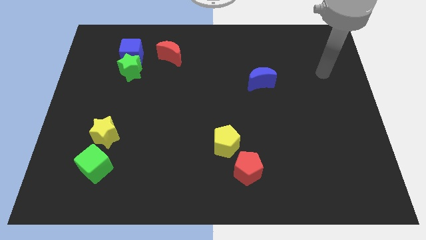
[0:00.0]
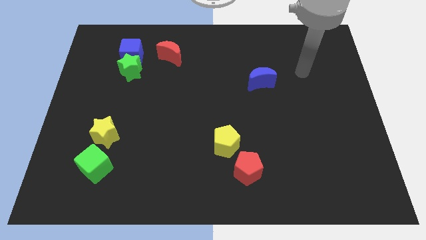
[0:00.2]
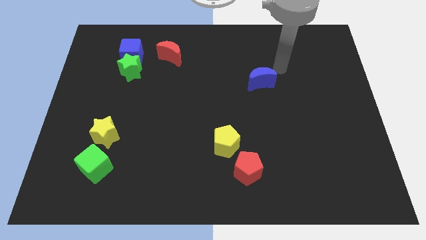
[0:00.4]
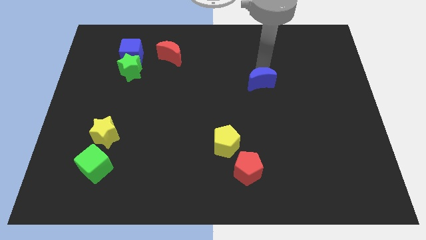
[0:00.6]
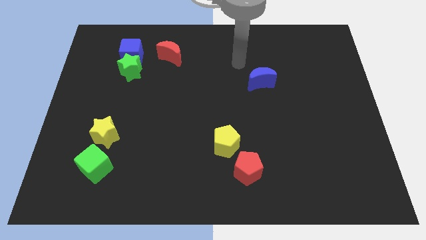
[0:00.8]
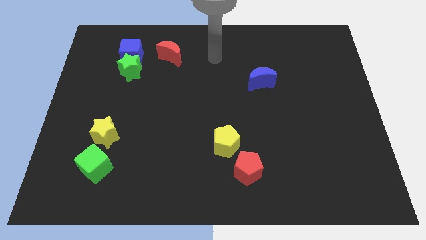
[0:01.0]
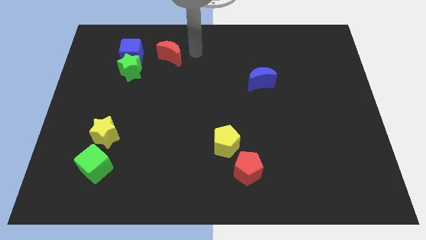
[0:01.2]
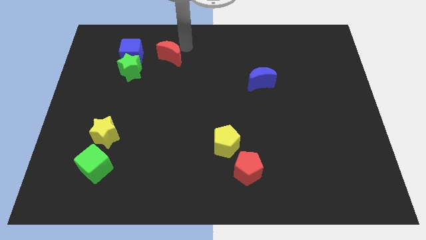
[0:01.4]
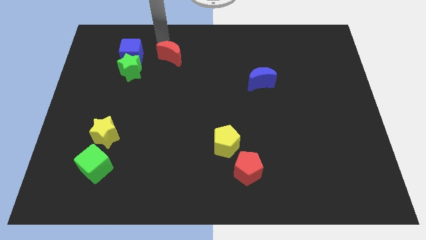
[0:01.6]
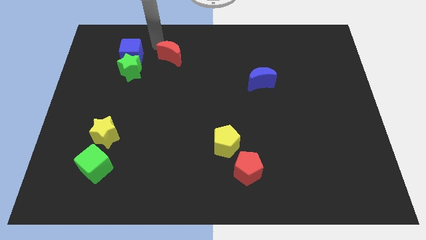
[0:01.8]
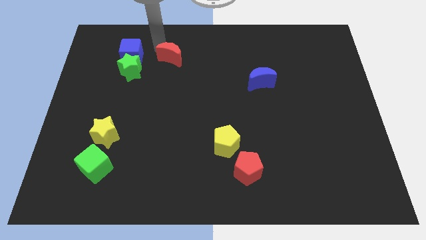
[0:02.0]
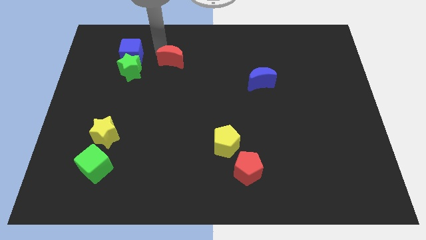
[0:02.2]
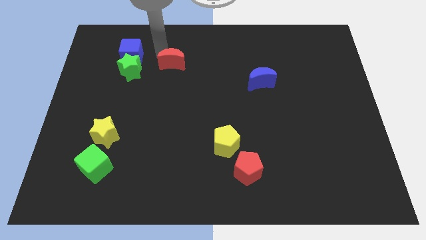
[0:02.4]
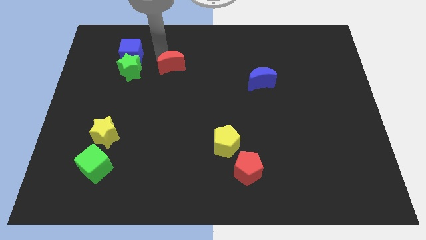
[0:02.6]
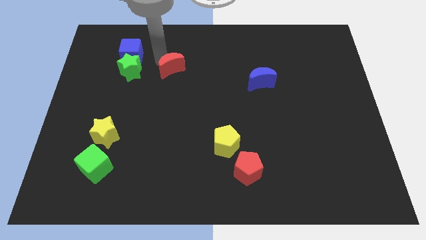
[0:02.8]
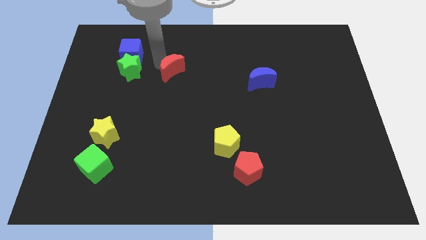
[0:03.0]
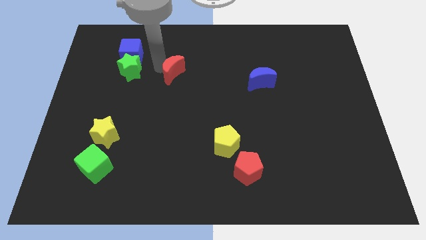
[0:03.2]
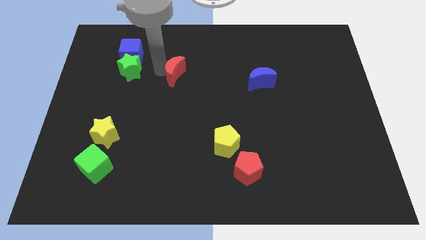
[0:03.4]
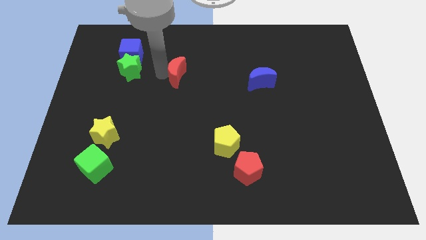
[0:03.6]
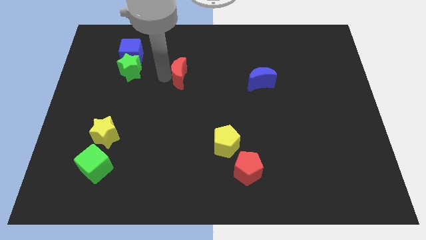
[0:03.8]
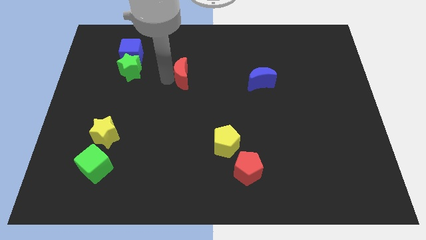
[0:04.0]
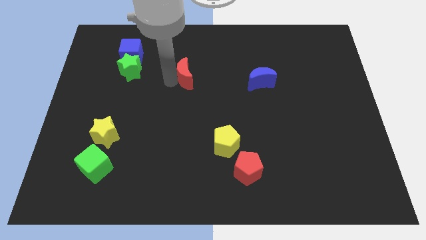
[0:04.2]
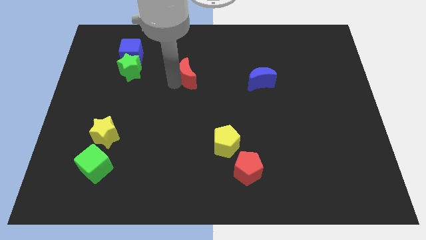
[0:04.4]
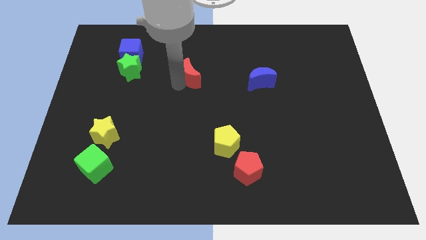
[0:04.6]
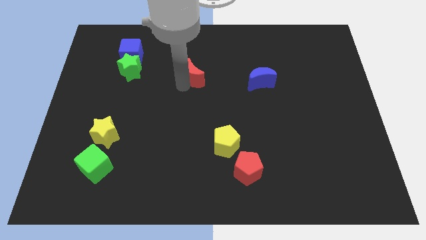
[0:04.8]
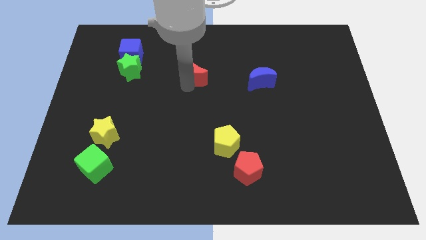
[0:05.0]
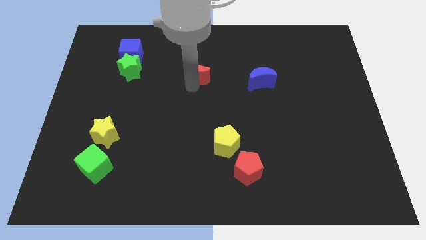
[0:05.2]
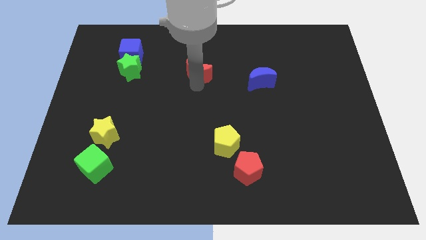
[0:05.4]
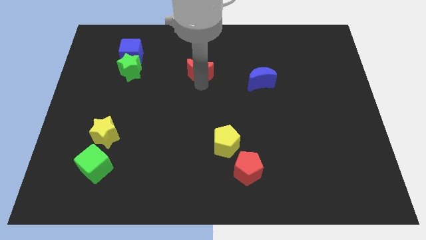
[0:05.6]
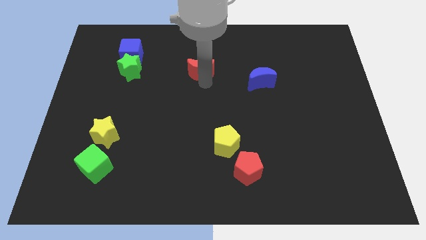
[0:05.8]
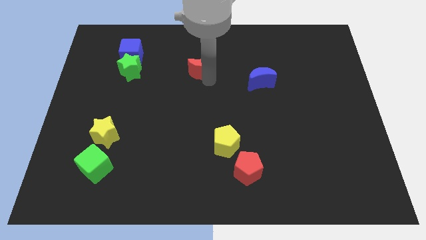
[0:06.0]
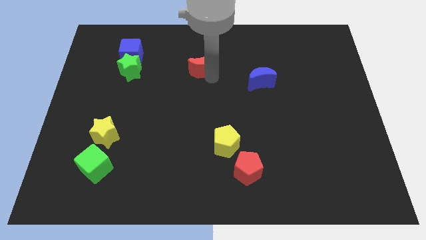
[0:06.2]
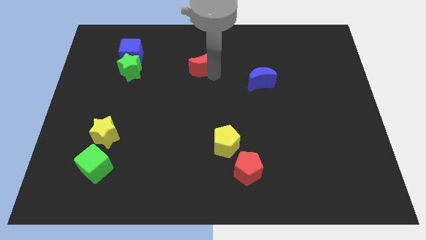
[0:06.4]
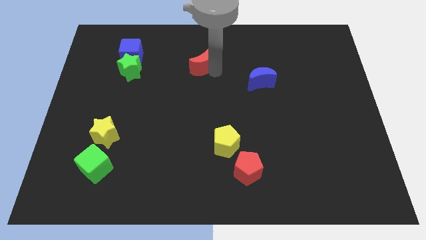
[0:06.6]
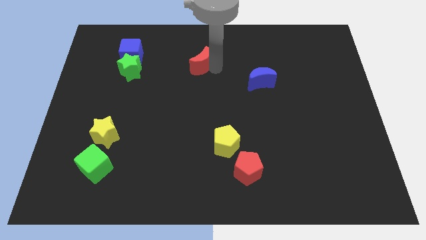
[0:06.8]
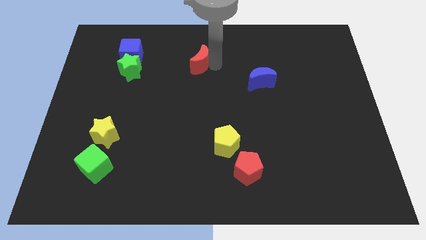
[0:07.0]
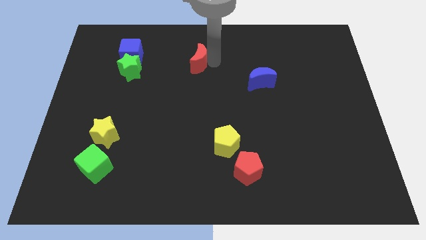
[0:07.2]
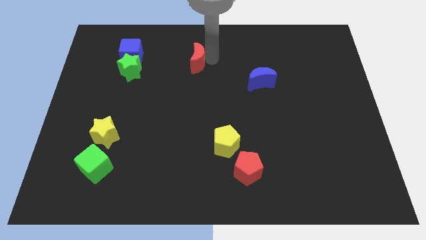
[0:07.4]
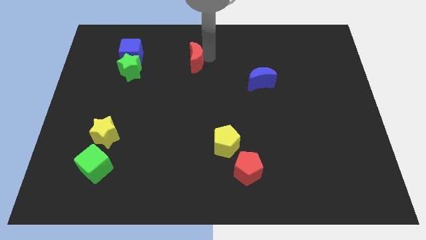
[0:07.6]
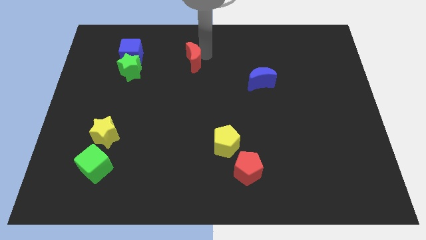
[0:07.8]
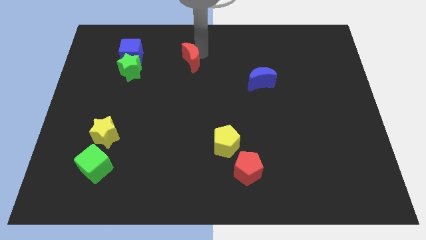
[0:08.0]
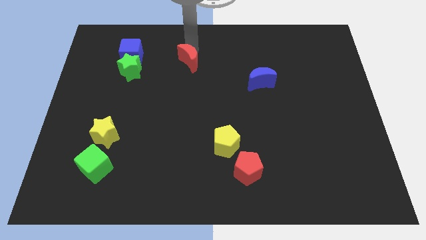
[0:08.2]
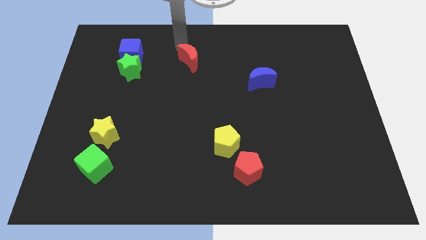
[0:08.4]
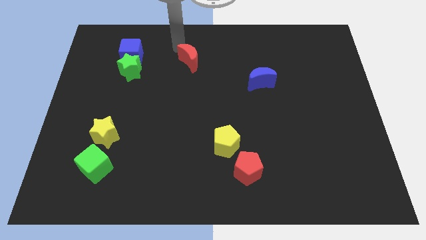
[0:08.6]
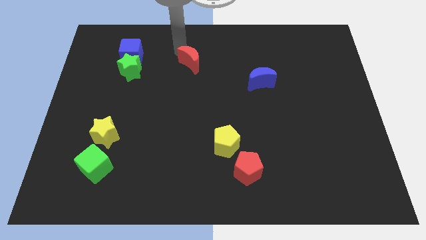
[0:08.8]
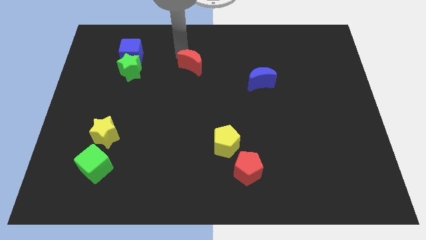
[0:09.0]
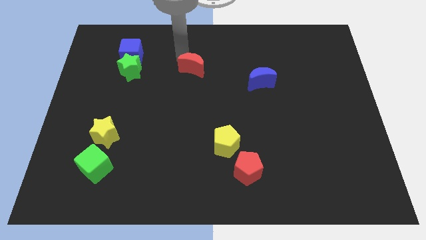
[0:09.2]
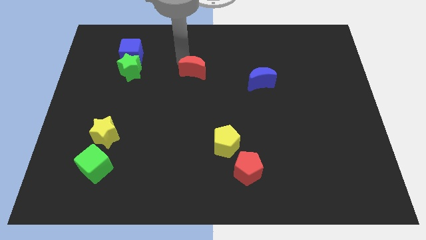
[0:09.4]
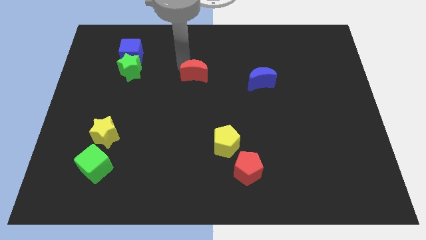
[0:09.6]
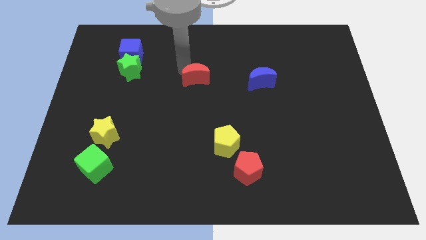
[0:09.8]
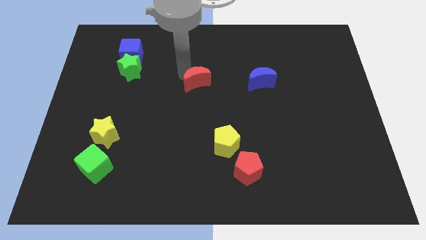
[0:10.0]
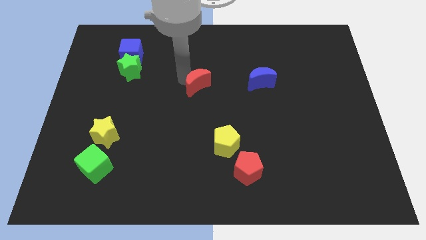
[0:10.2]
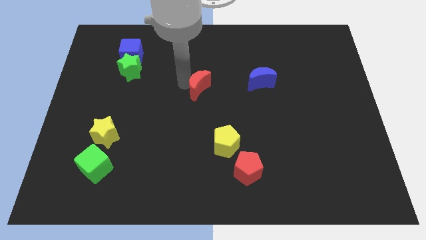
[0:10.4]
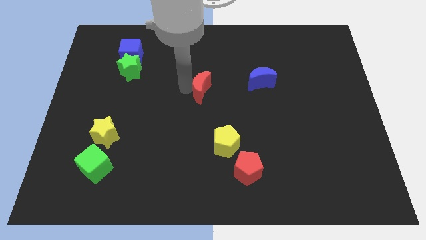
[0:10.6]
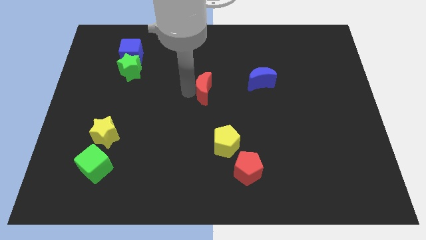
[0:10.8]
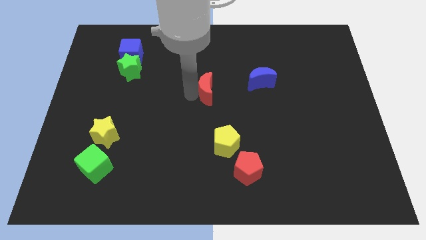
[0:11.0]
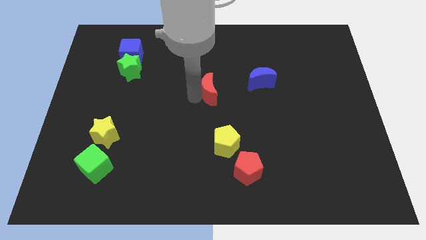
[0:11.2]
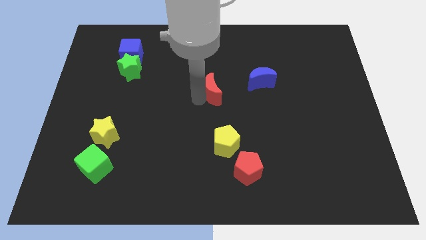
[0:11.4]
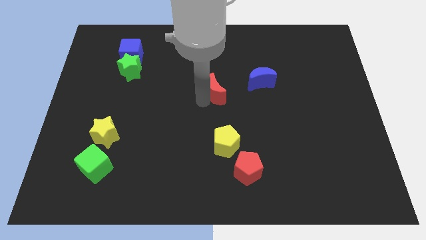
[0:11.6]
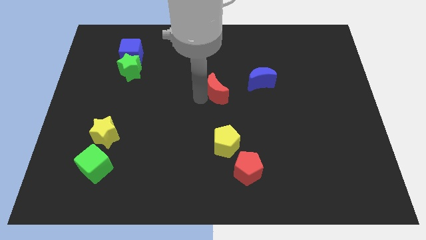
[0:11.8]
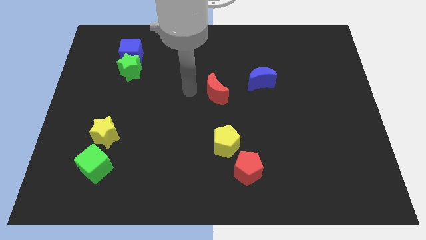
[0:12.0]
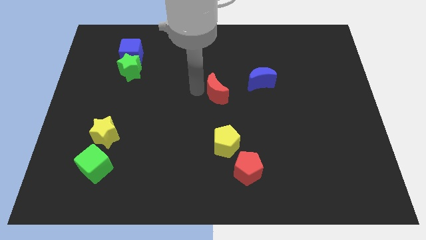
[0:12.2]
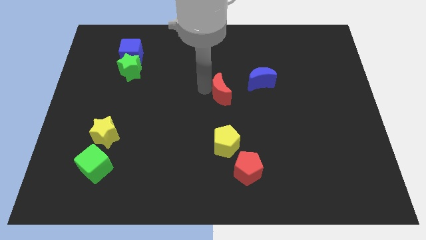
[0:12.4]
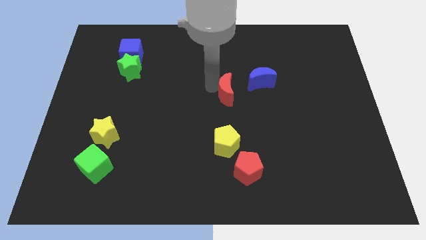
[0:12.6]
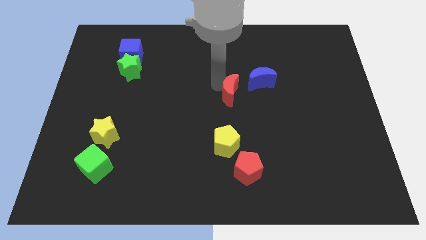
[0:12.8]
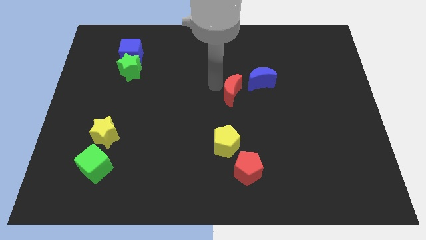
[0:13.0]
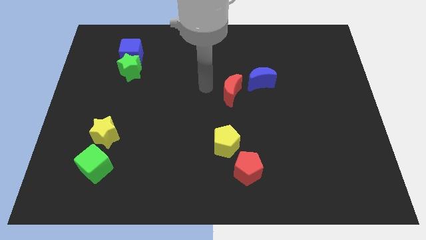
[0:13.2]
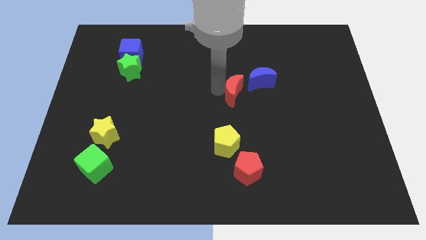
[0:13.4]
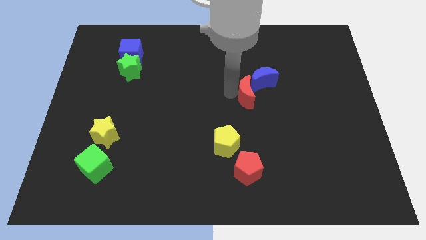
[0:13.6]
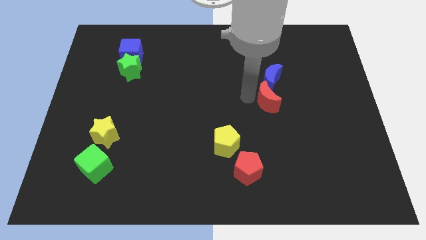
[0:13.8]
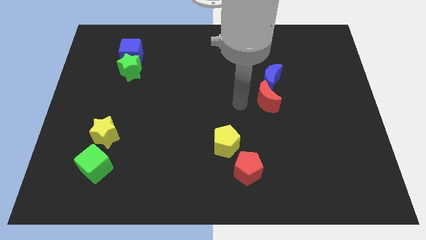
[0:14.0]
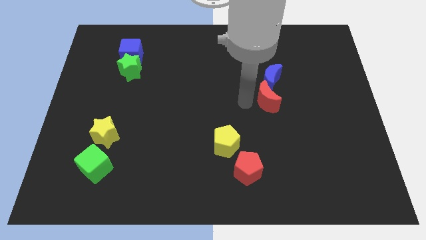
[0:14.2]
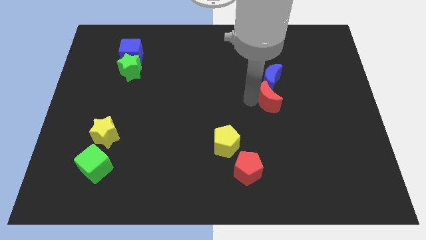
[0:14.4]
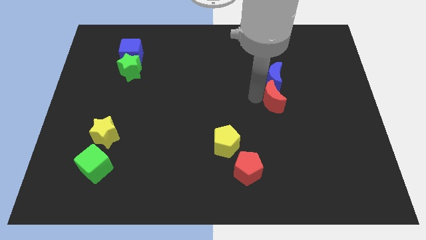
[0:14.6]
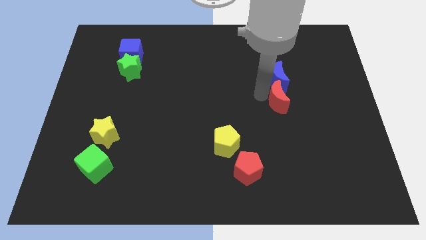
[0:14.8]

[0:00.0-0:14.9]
move the red moon diagonally down and to the right of the blue moon
